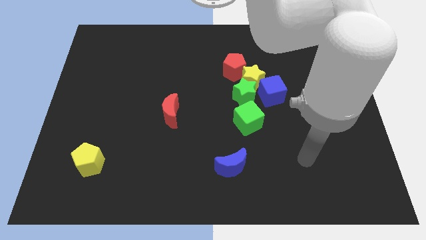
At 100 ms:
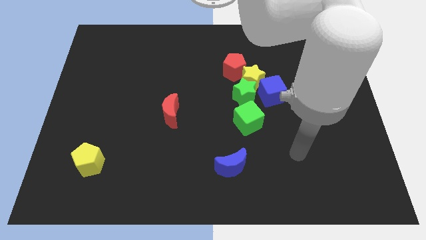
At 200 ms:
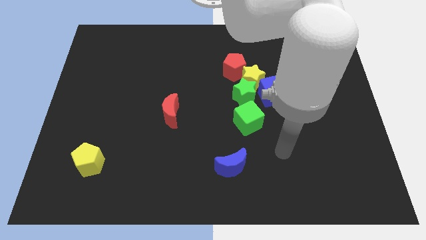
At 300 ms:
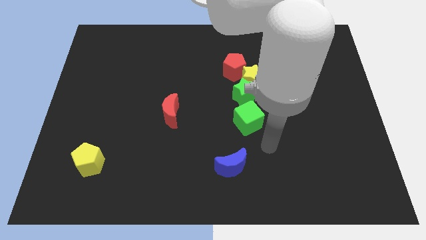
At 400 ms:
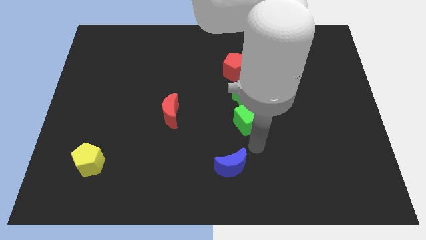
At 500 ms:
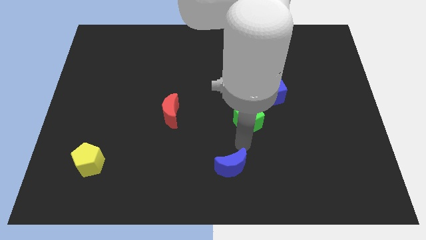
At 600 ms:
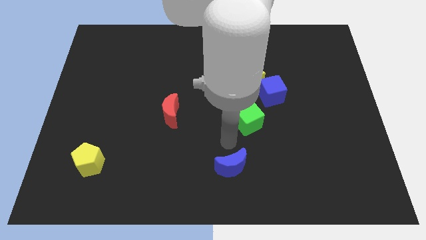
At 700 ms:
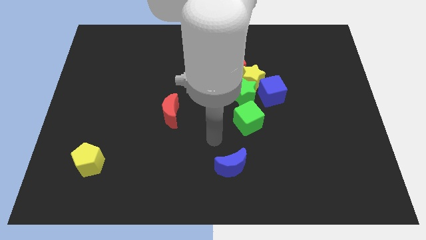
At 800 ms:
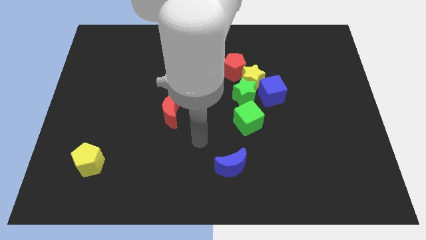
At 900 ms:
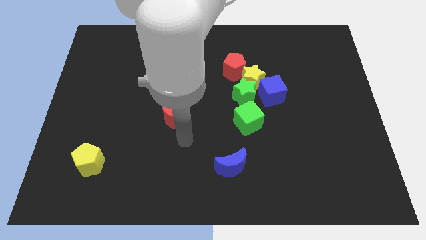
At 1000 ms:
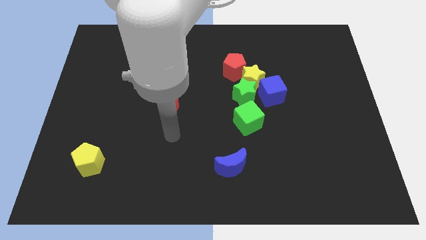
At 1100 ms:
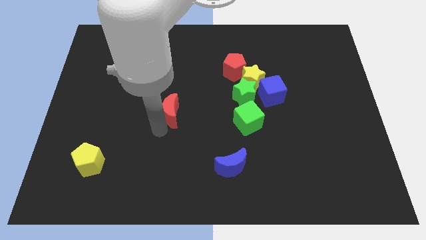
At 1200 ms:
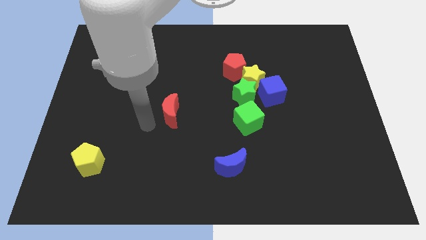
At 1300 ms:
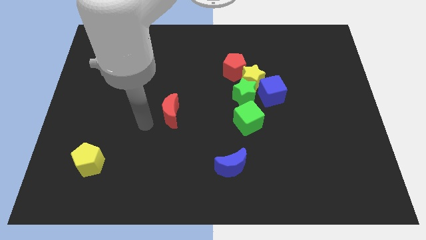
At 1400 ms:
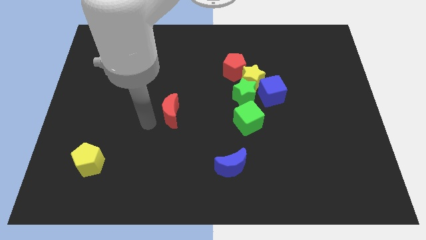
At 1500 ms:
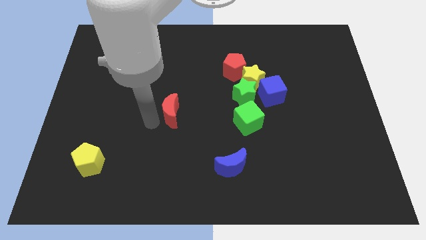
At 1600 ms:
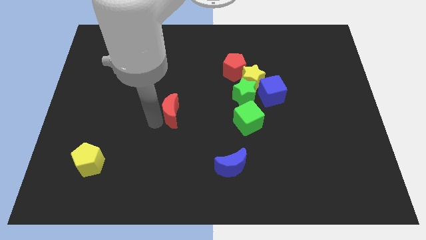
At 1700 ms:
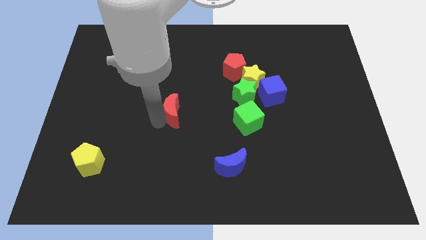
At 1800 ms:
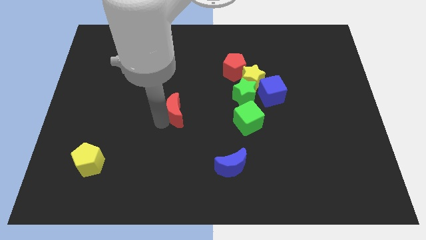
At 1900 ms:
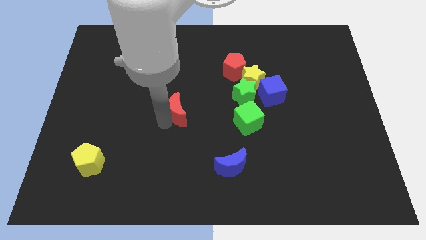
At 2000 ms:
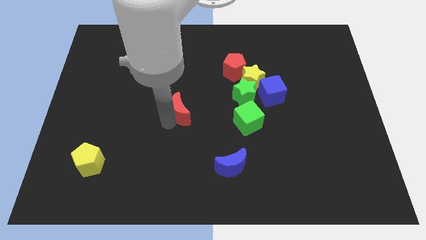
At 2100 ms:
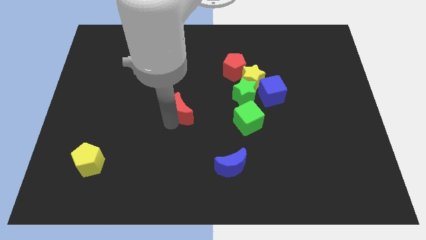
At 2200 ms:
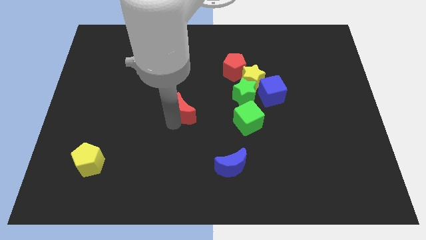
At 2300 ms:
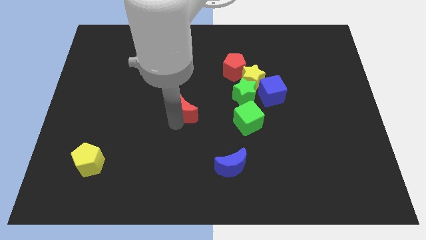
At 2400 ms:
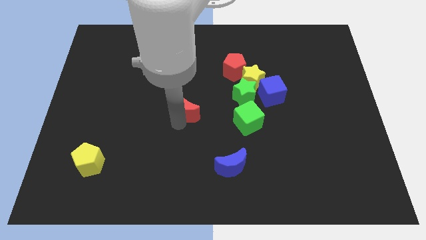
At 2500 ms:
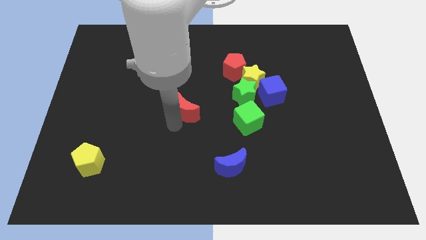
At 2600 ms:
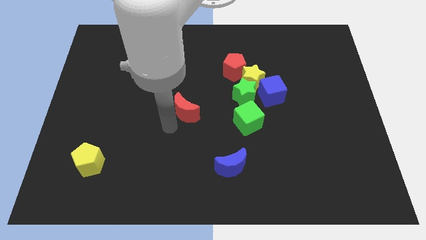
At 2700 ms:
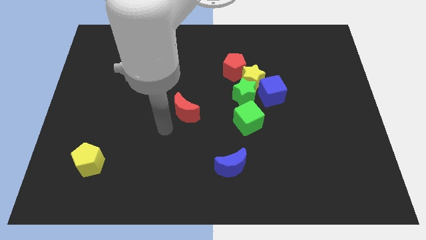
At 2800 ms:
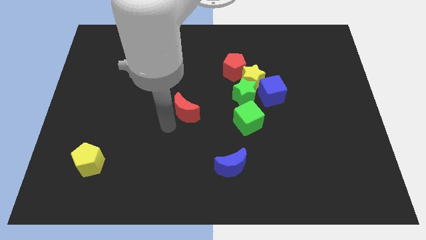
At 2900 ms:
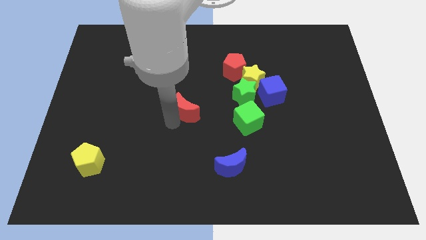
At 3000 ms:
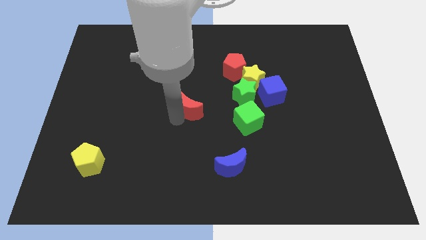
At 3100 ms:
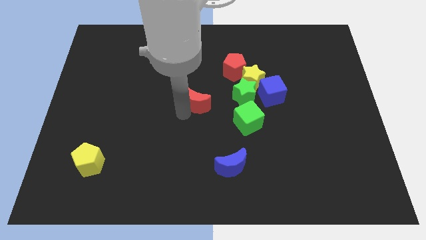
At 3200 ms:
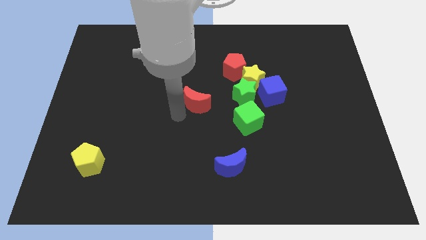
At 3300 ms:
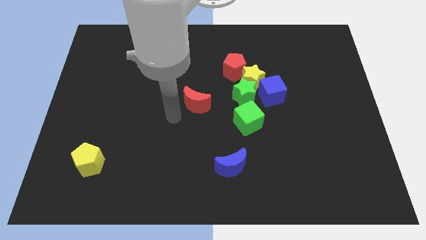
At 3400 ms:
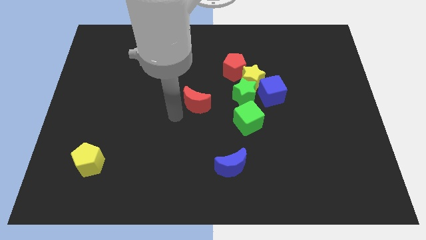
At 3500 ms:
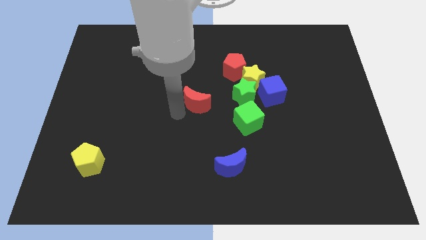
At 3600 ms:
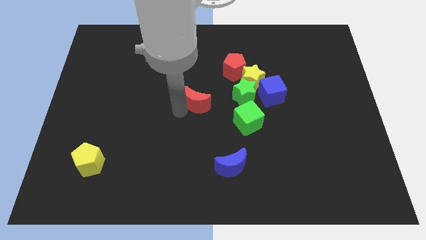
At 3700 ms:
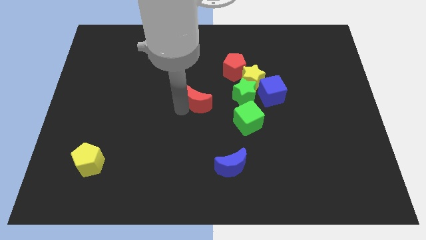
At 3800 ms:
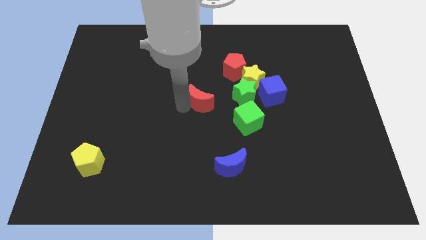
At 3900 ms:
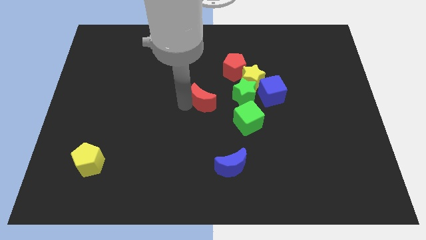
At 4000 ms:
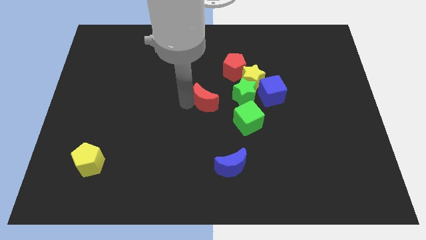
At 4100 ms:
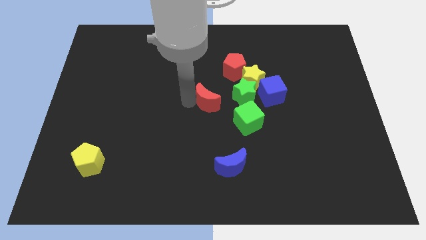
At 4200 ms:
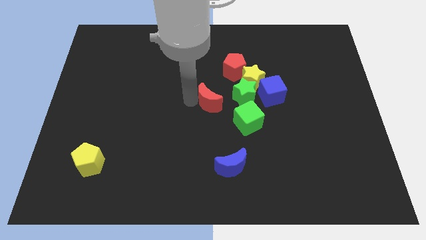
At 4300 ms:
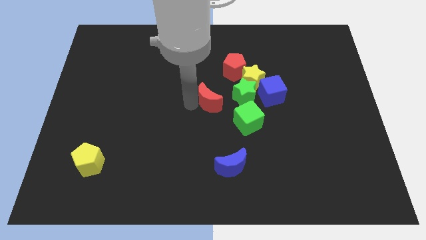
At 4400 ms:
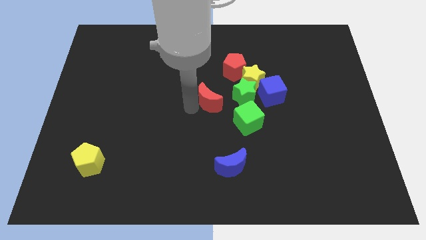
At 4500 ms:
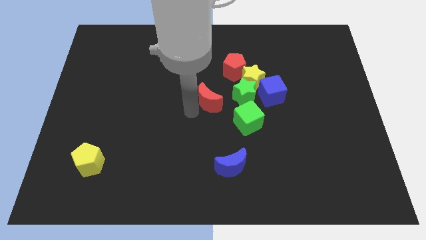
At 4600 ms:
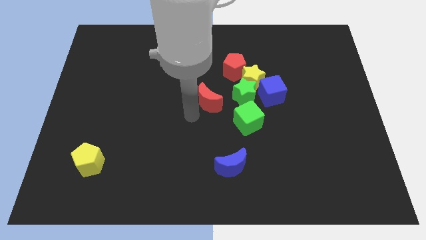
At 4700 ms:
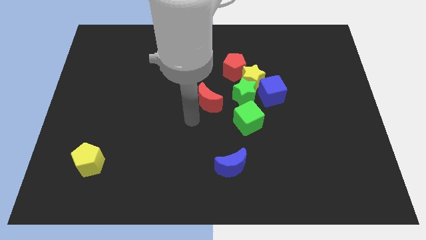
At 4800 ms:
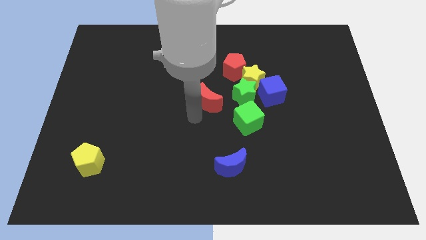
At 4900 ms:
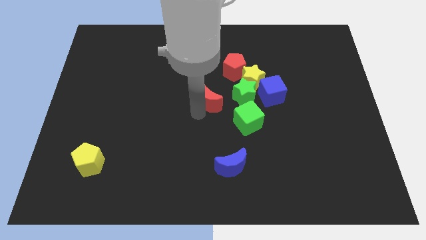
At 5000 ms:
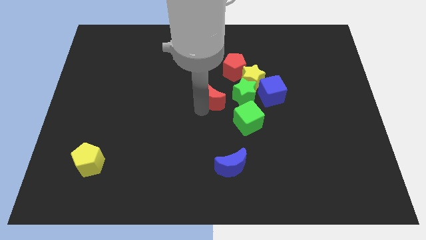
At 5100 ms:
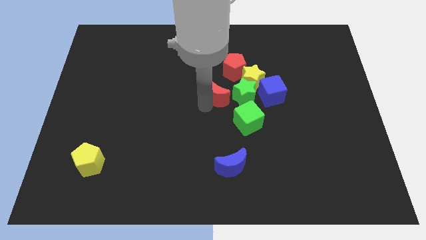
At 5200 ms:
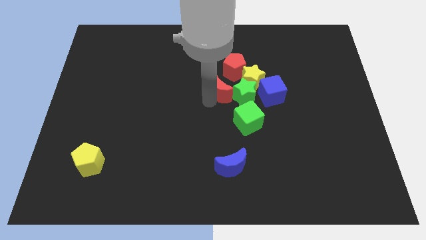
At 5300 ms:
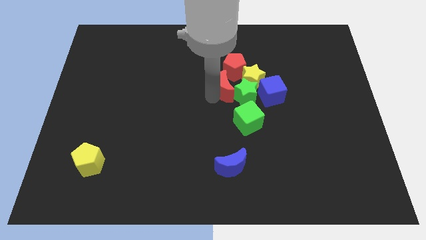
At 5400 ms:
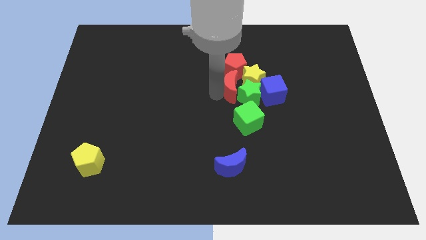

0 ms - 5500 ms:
push the red moon towards the yellow star

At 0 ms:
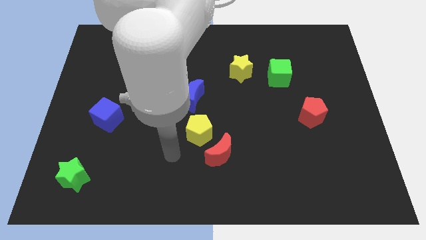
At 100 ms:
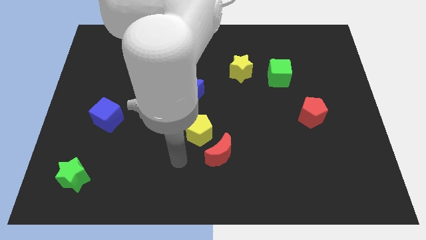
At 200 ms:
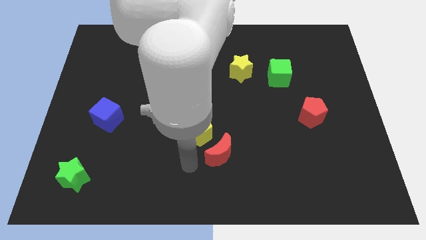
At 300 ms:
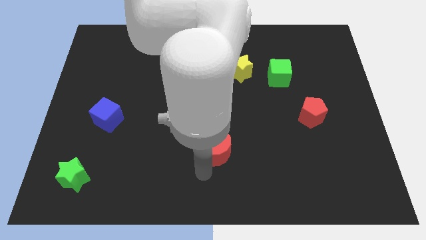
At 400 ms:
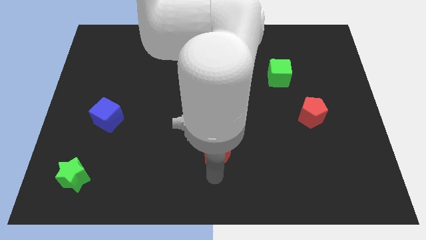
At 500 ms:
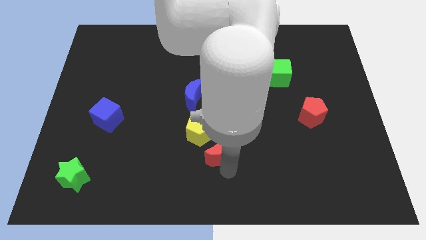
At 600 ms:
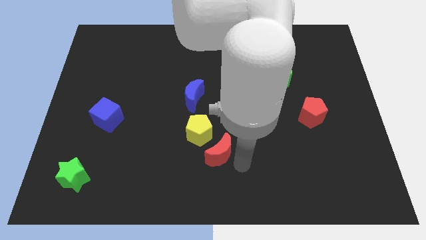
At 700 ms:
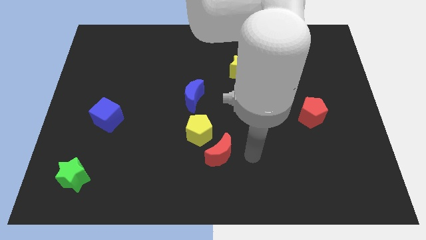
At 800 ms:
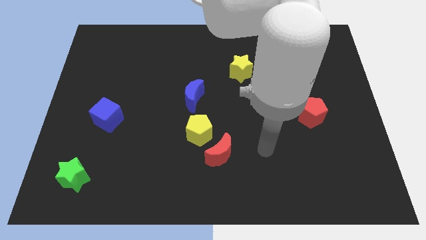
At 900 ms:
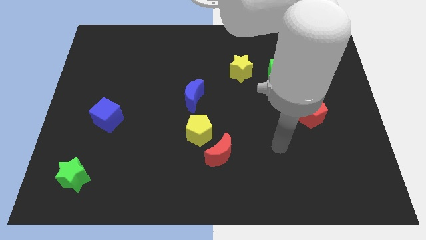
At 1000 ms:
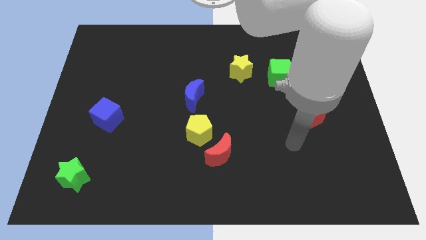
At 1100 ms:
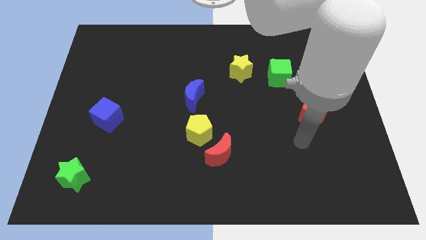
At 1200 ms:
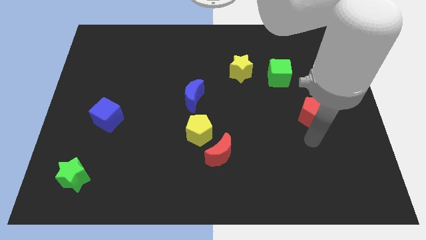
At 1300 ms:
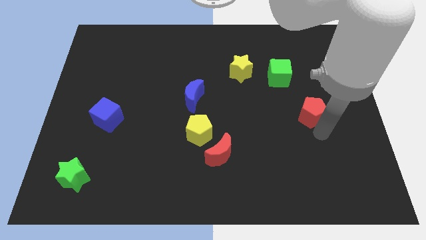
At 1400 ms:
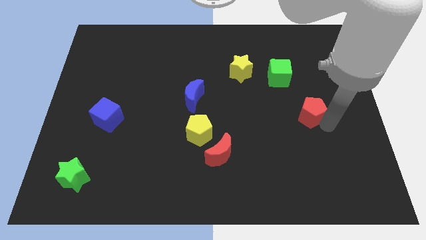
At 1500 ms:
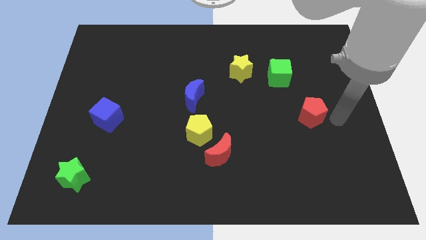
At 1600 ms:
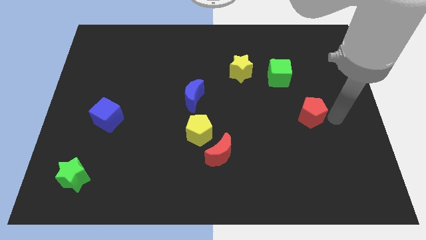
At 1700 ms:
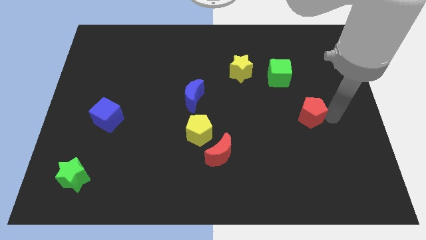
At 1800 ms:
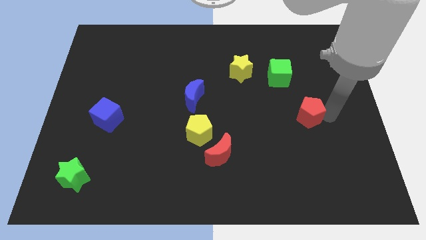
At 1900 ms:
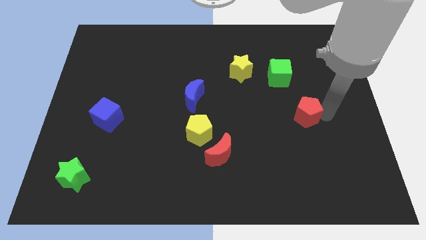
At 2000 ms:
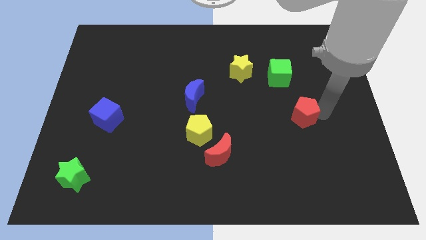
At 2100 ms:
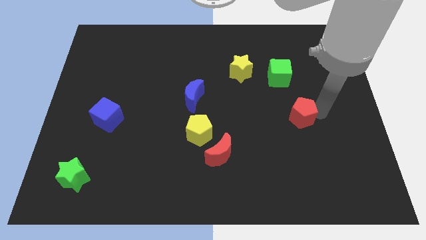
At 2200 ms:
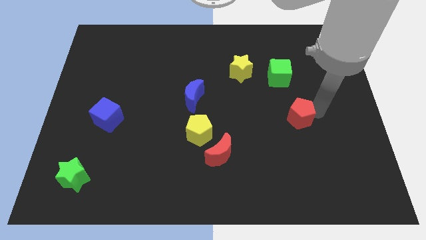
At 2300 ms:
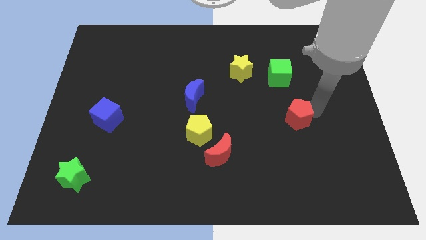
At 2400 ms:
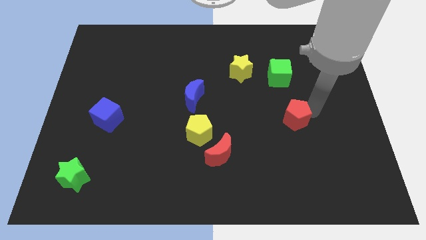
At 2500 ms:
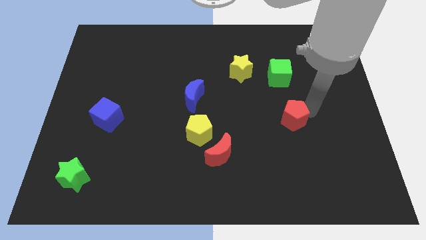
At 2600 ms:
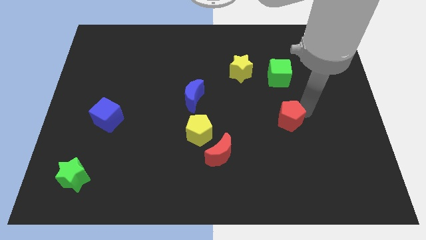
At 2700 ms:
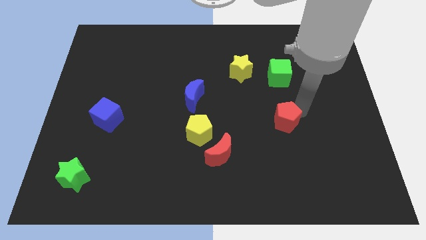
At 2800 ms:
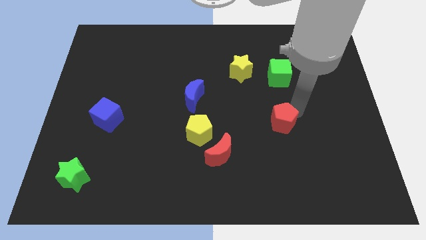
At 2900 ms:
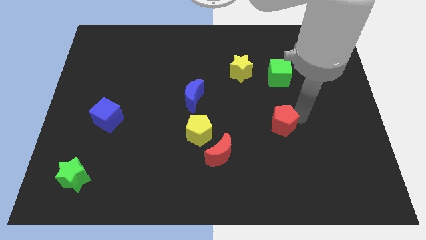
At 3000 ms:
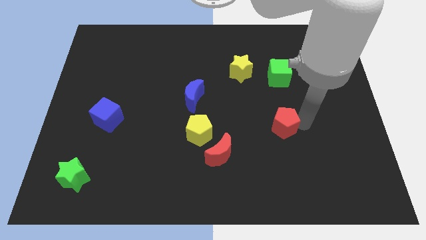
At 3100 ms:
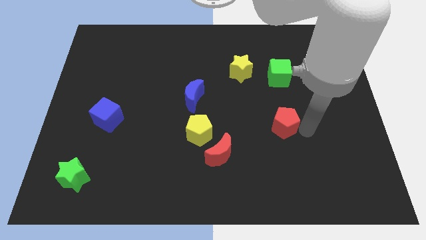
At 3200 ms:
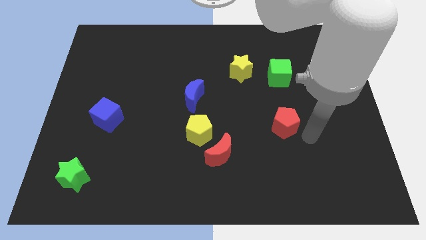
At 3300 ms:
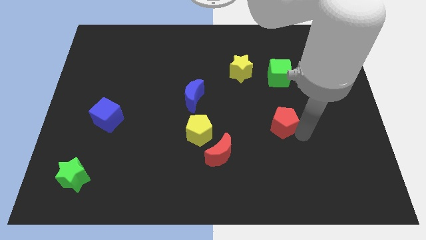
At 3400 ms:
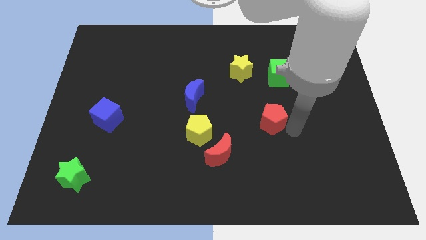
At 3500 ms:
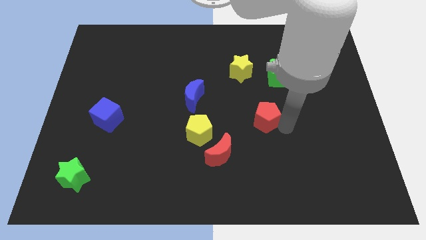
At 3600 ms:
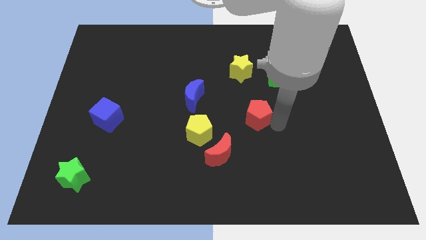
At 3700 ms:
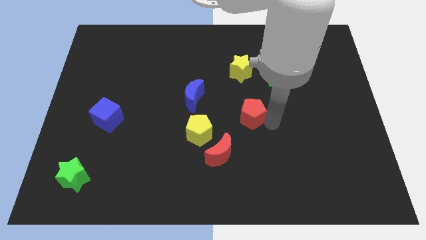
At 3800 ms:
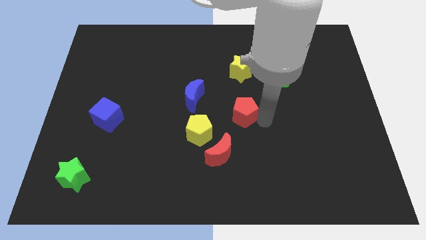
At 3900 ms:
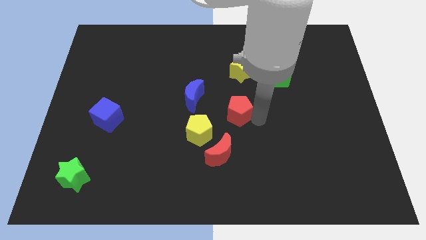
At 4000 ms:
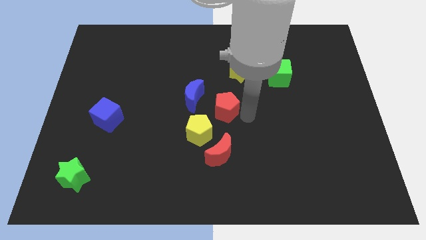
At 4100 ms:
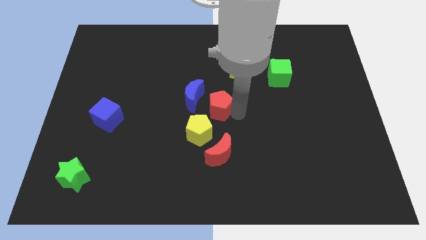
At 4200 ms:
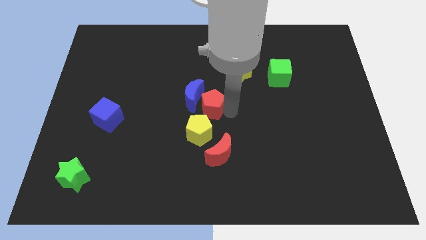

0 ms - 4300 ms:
push the red pentagon next to the blue moon
